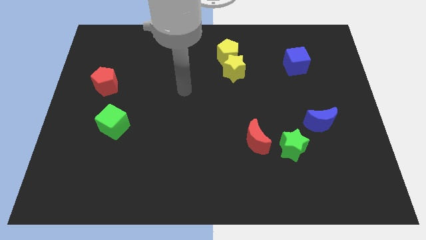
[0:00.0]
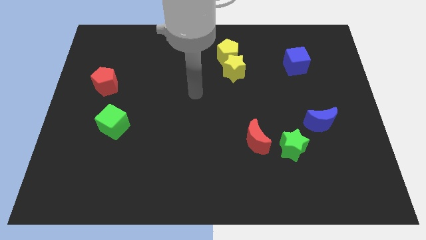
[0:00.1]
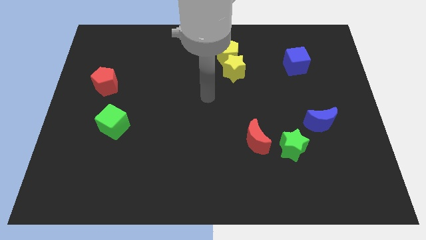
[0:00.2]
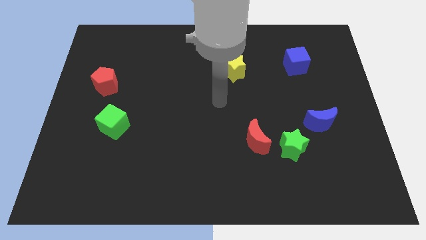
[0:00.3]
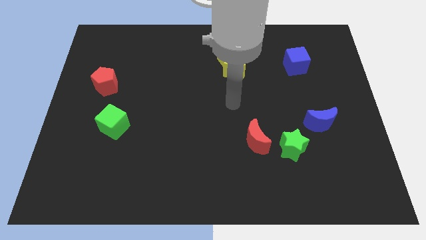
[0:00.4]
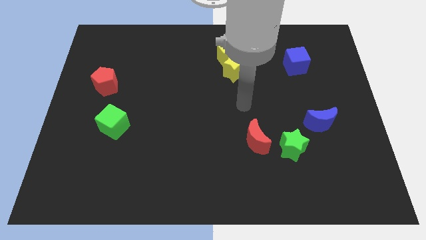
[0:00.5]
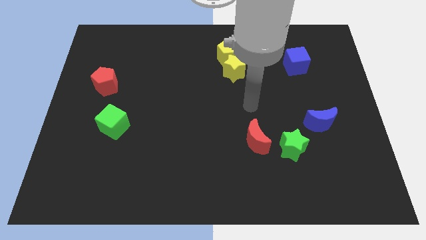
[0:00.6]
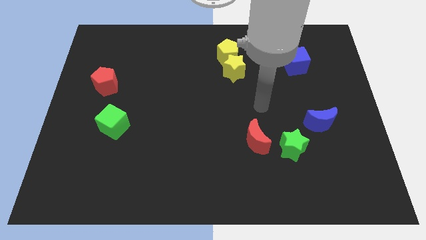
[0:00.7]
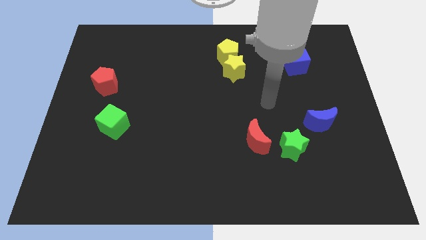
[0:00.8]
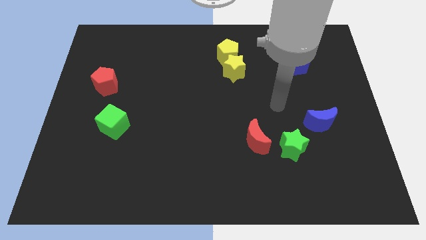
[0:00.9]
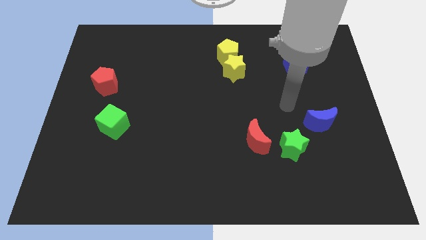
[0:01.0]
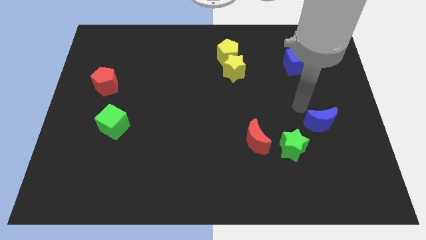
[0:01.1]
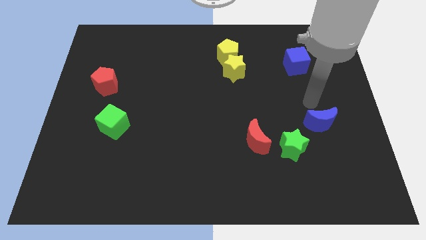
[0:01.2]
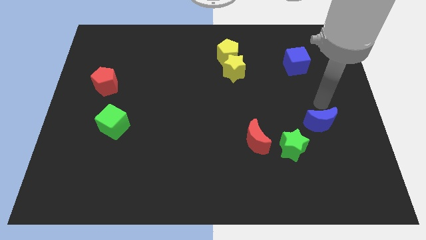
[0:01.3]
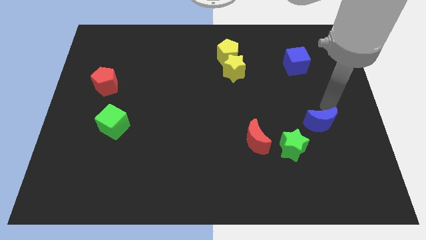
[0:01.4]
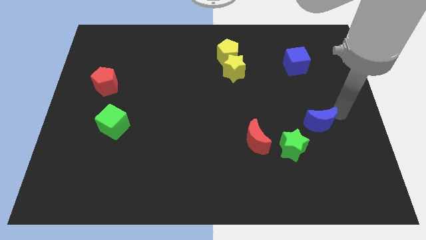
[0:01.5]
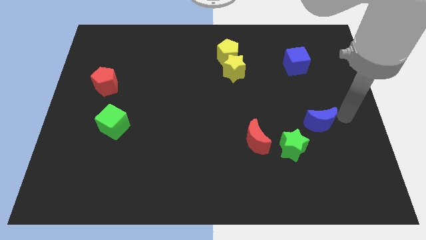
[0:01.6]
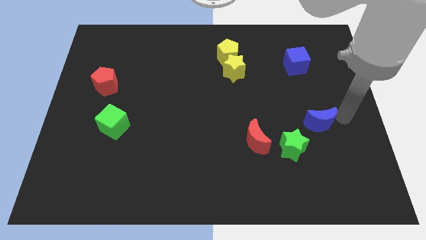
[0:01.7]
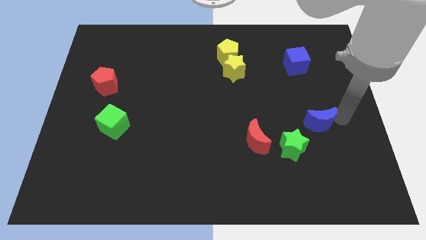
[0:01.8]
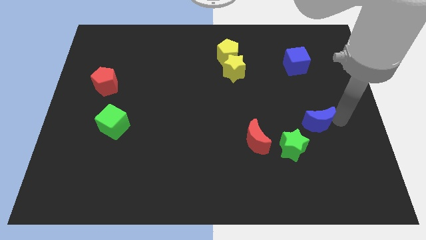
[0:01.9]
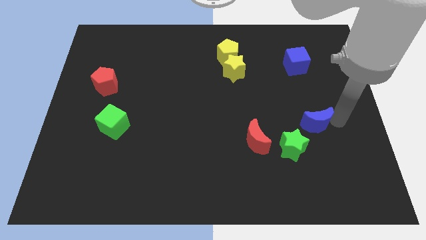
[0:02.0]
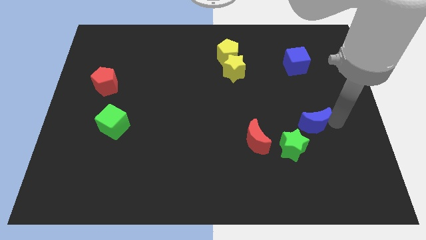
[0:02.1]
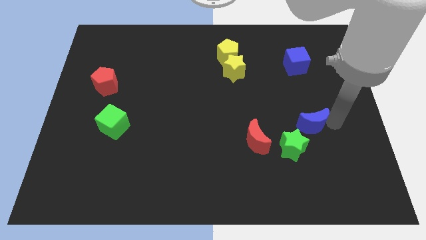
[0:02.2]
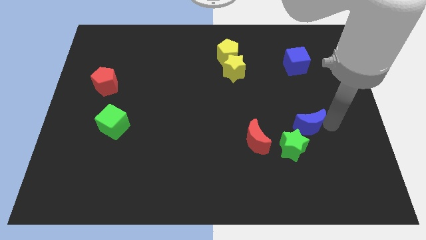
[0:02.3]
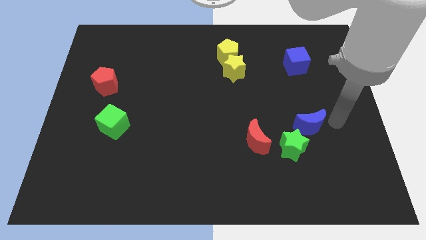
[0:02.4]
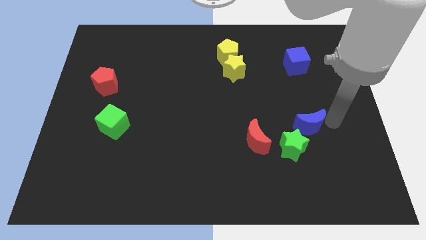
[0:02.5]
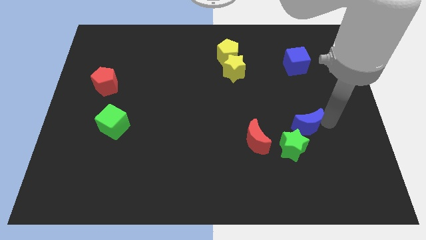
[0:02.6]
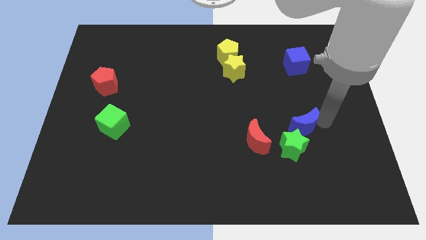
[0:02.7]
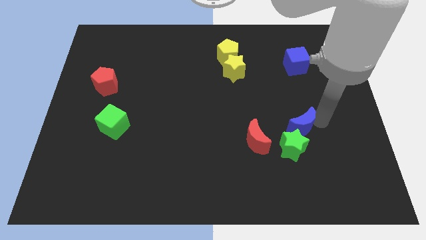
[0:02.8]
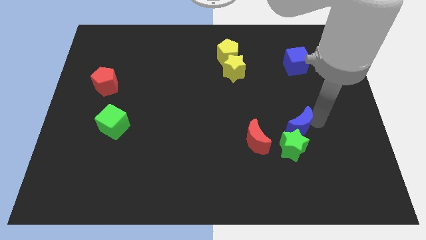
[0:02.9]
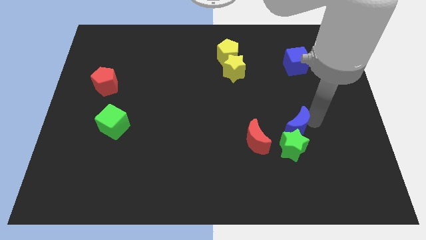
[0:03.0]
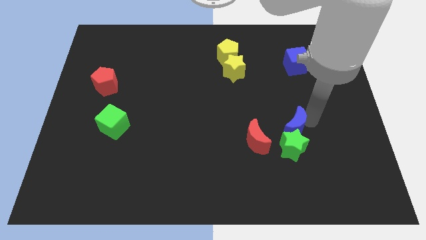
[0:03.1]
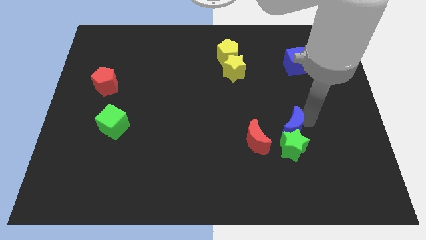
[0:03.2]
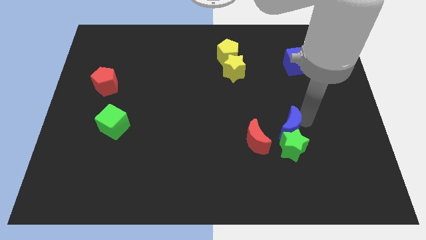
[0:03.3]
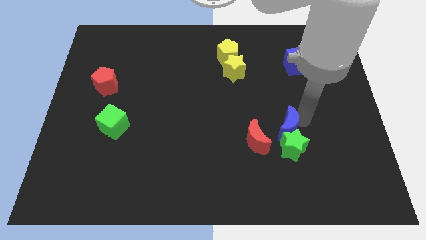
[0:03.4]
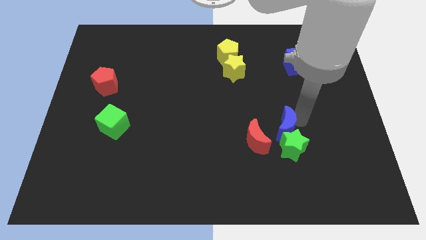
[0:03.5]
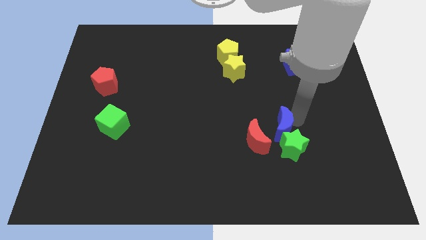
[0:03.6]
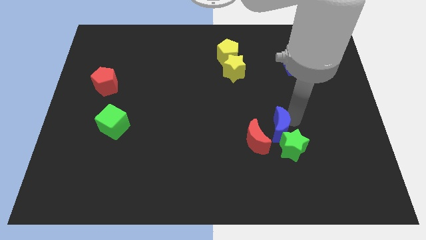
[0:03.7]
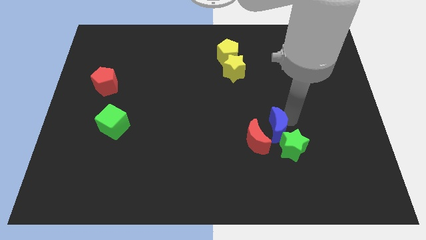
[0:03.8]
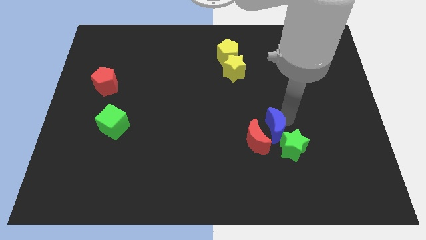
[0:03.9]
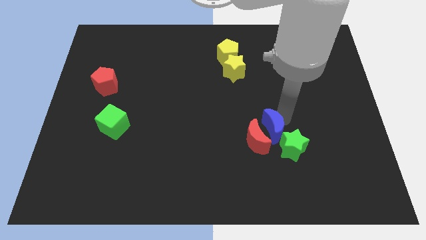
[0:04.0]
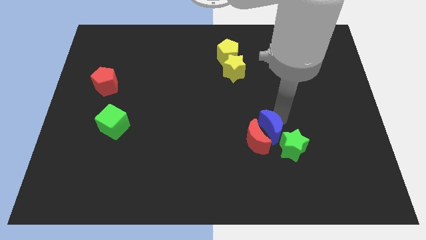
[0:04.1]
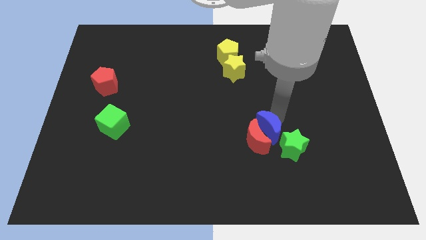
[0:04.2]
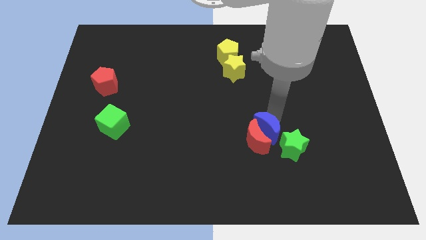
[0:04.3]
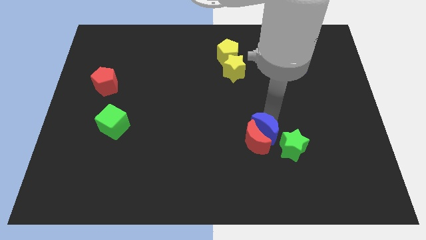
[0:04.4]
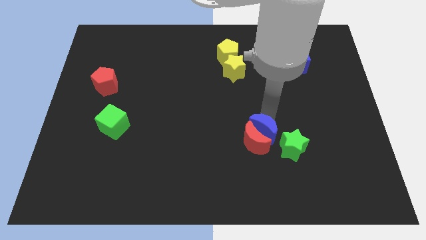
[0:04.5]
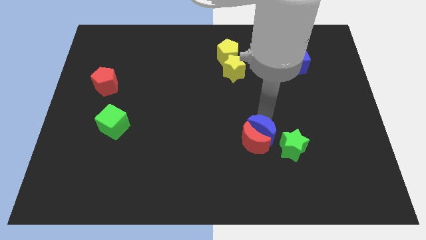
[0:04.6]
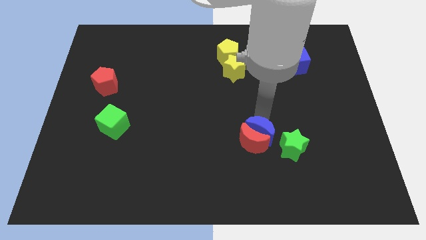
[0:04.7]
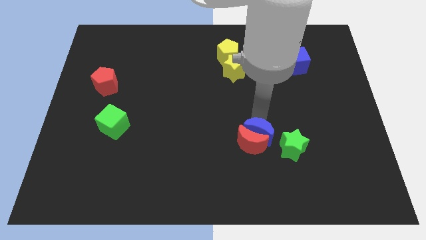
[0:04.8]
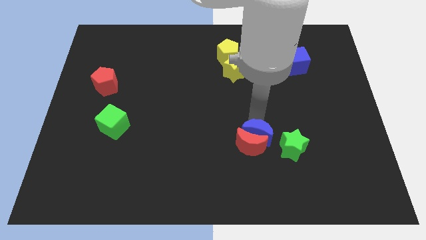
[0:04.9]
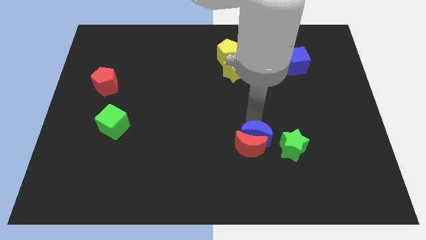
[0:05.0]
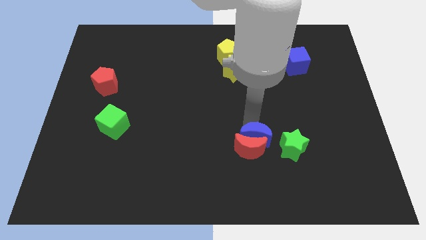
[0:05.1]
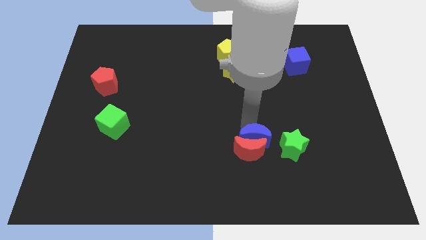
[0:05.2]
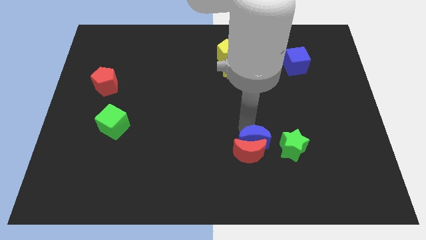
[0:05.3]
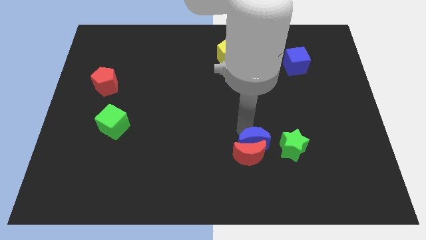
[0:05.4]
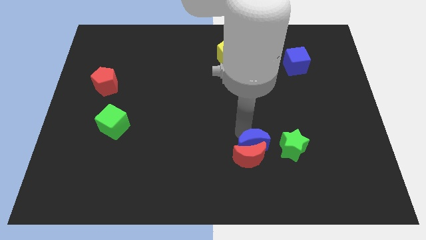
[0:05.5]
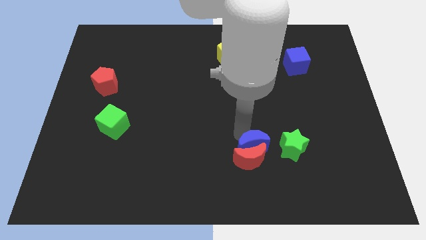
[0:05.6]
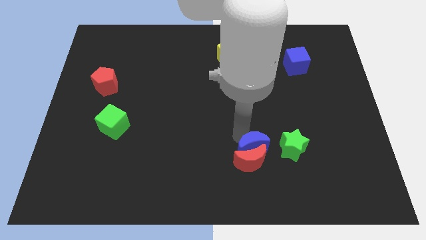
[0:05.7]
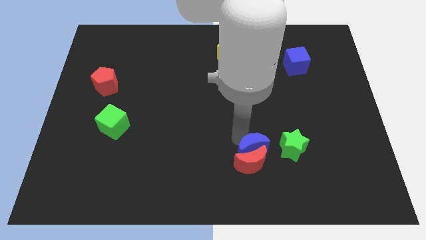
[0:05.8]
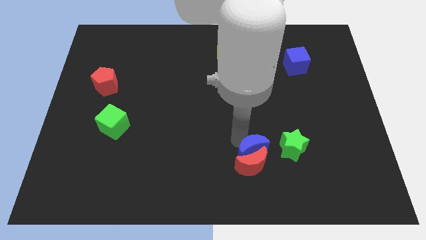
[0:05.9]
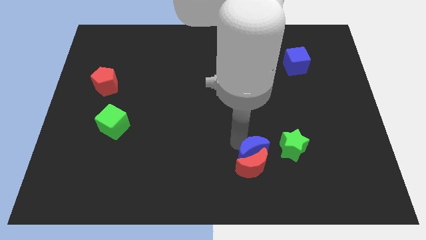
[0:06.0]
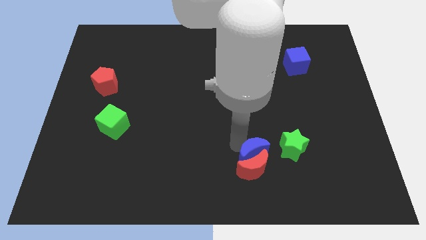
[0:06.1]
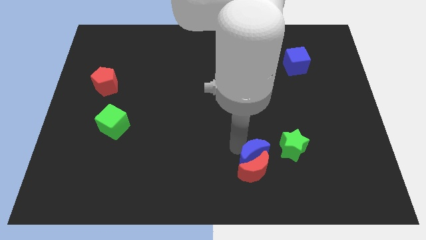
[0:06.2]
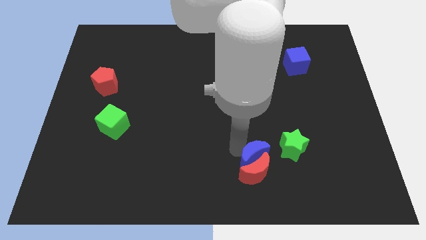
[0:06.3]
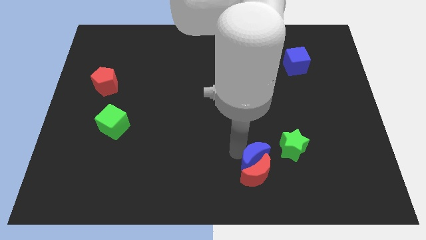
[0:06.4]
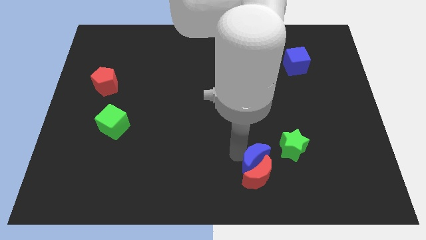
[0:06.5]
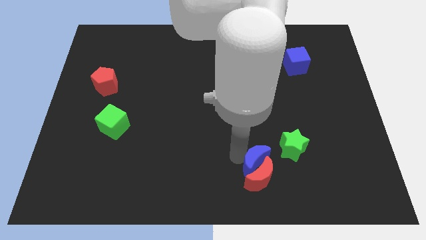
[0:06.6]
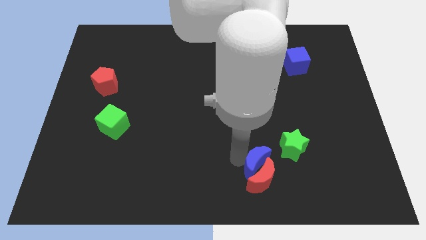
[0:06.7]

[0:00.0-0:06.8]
move the blue moon to the bottom

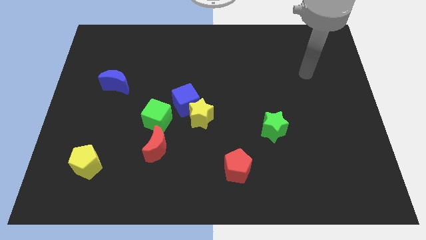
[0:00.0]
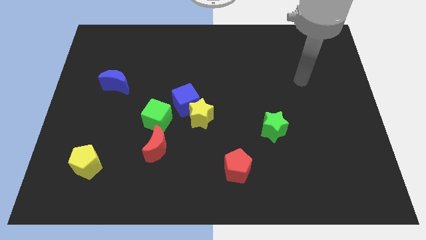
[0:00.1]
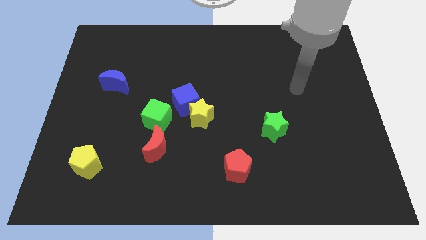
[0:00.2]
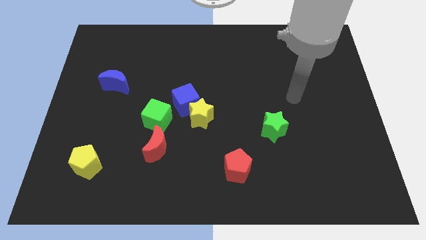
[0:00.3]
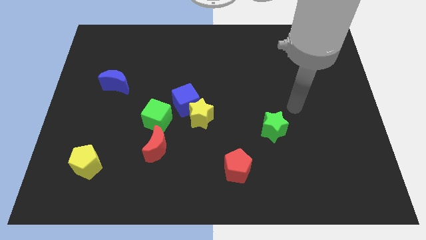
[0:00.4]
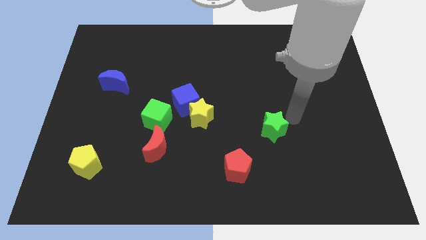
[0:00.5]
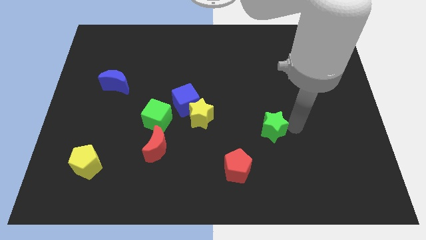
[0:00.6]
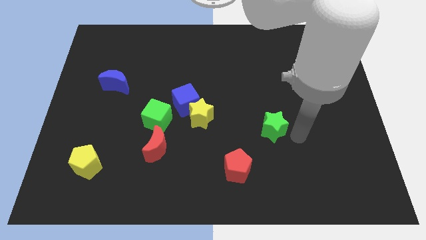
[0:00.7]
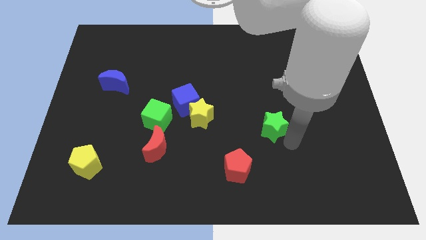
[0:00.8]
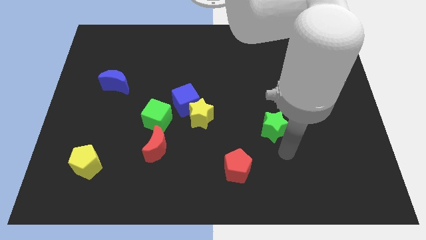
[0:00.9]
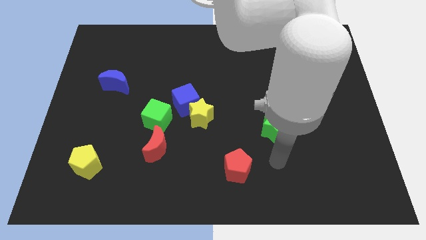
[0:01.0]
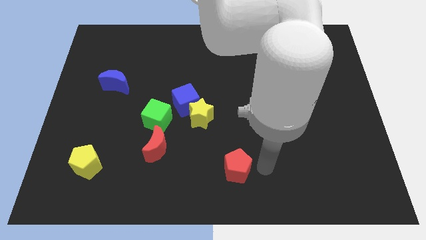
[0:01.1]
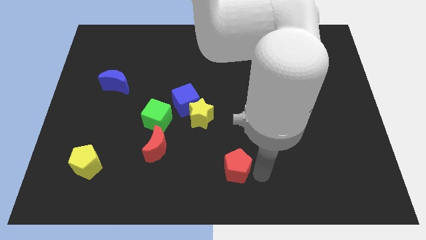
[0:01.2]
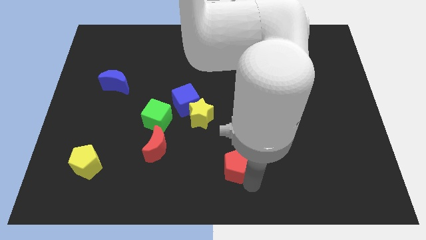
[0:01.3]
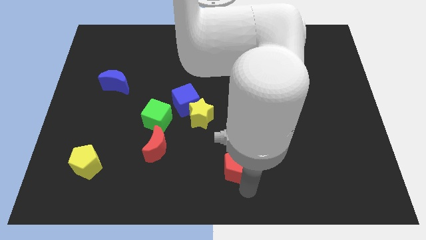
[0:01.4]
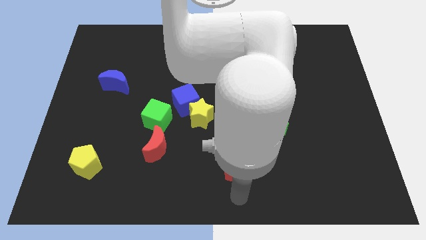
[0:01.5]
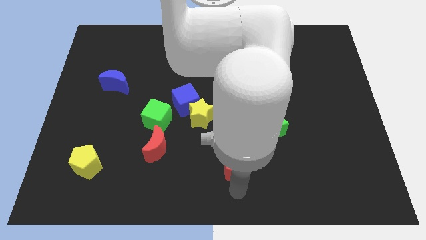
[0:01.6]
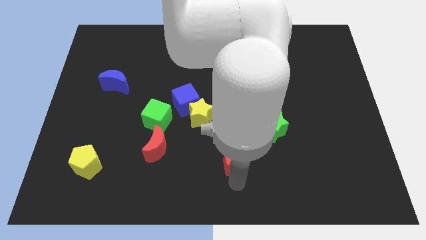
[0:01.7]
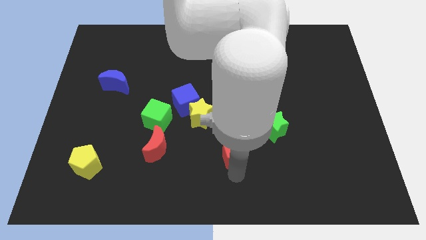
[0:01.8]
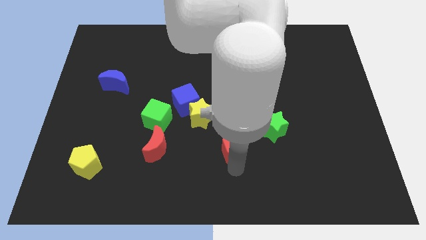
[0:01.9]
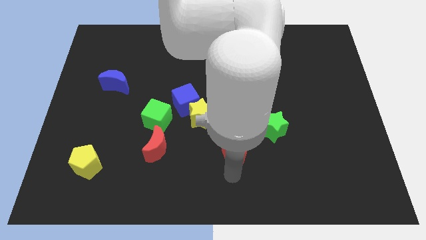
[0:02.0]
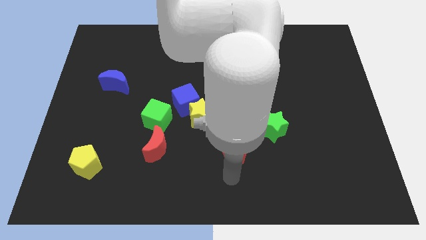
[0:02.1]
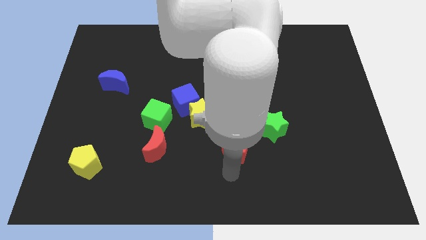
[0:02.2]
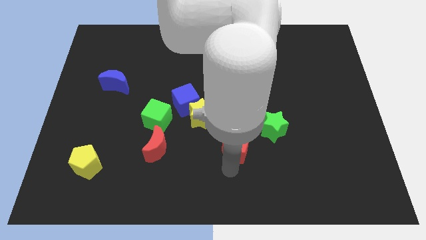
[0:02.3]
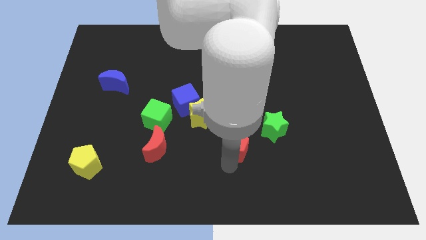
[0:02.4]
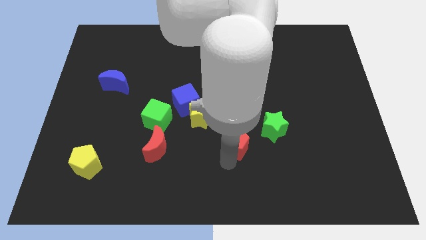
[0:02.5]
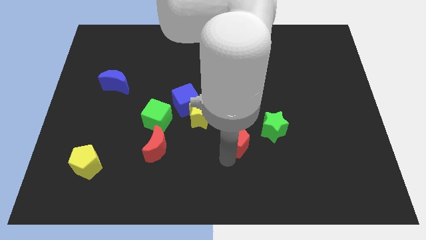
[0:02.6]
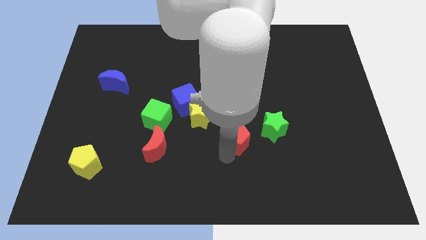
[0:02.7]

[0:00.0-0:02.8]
move the red pentagon to the center
